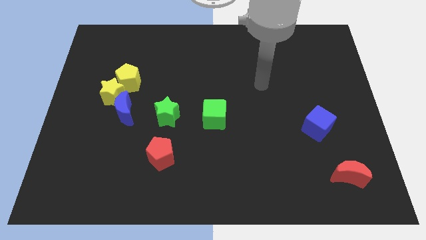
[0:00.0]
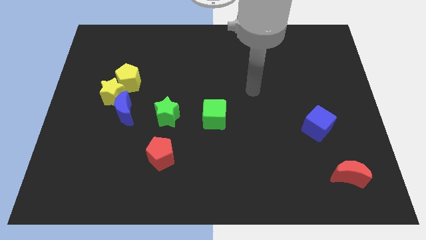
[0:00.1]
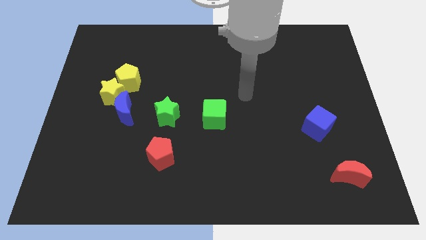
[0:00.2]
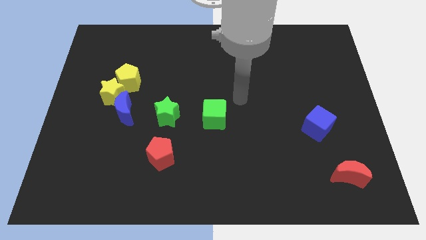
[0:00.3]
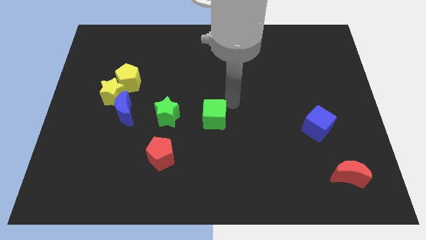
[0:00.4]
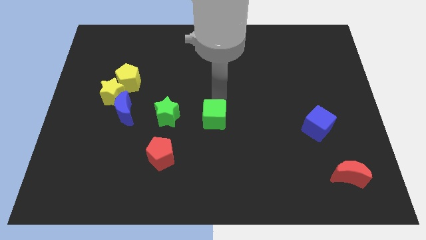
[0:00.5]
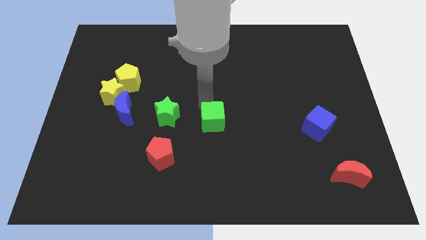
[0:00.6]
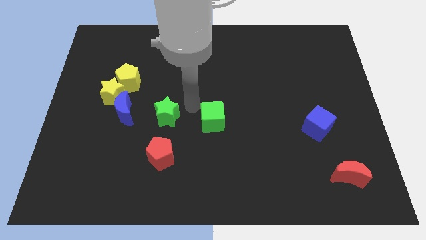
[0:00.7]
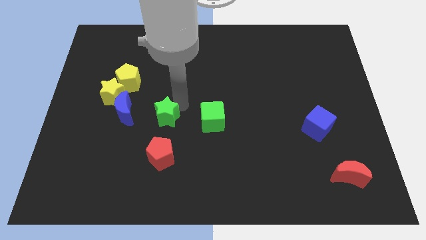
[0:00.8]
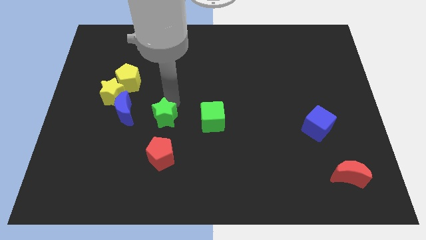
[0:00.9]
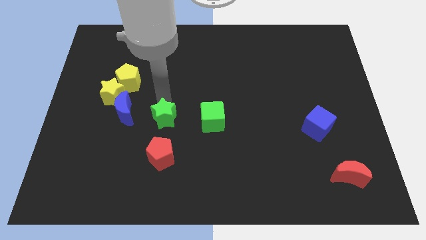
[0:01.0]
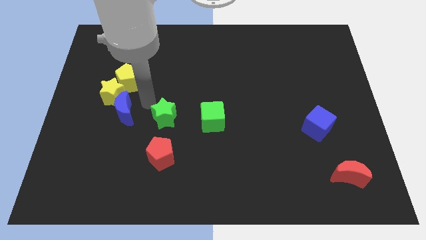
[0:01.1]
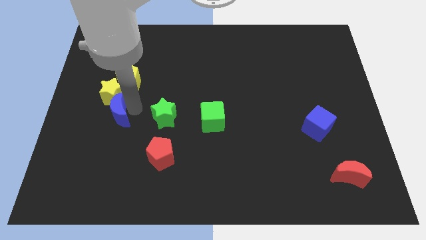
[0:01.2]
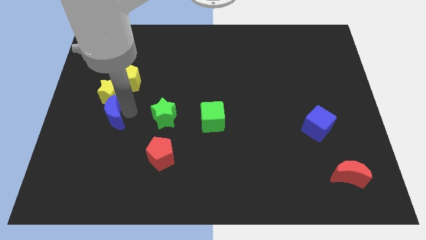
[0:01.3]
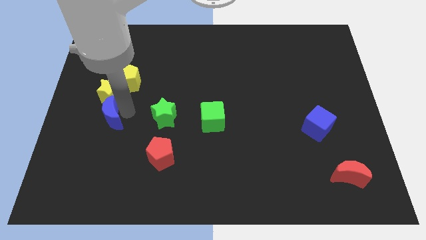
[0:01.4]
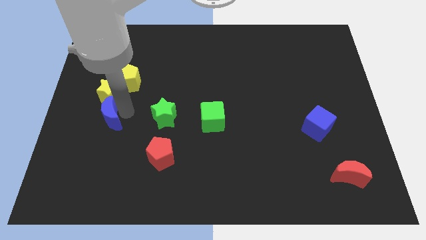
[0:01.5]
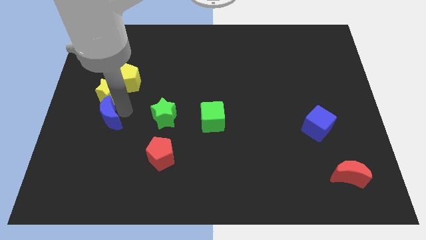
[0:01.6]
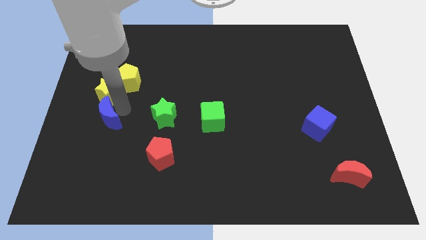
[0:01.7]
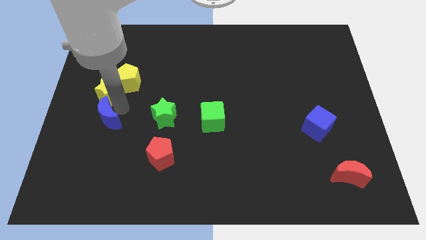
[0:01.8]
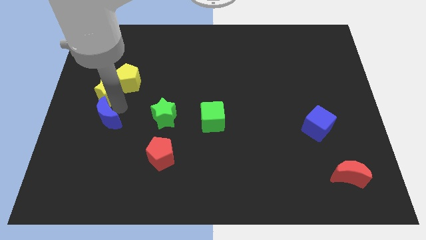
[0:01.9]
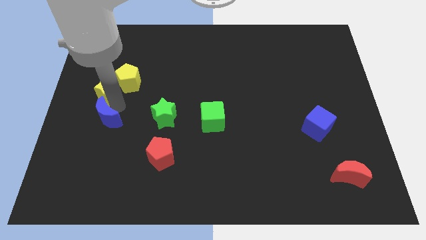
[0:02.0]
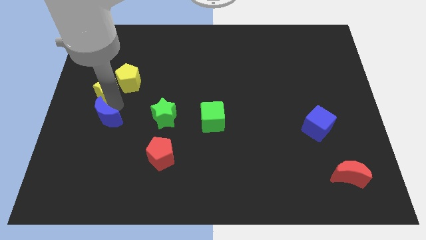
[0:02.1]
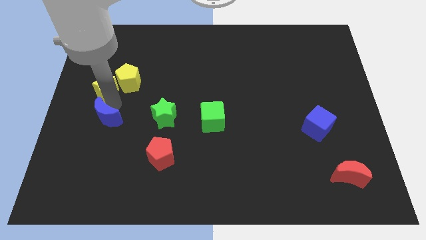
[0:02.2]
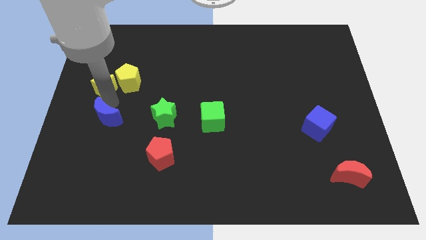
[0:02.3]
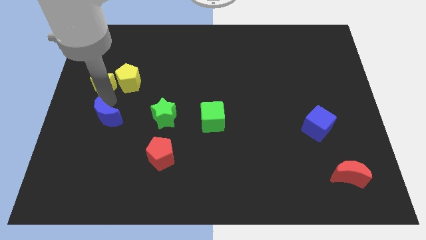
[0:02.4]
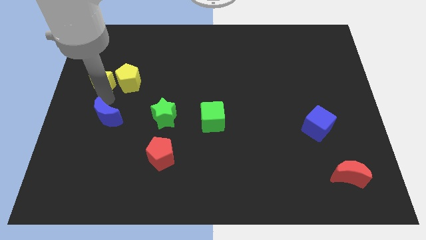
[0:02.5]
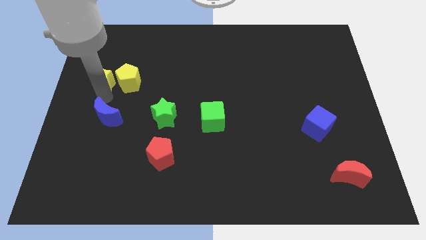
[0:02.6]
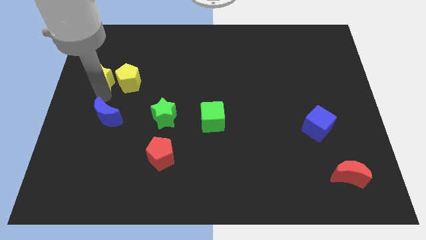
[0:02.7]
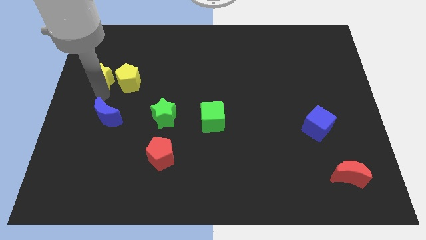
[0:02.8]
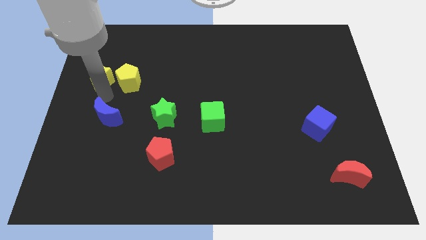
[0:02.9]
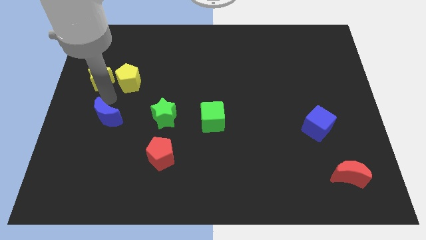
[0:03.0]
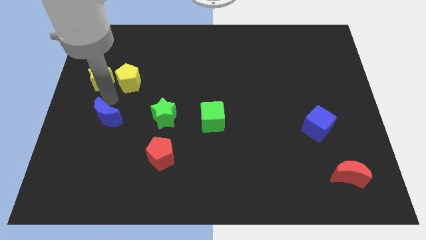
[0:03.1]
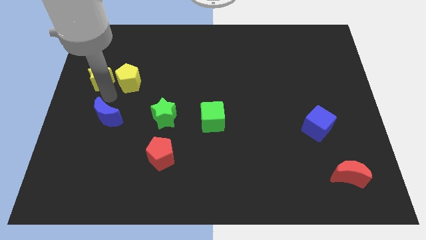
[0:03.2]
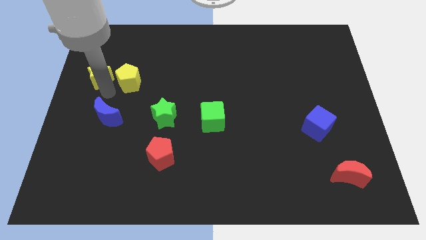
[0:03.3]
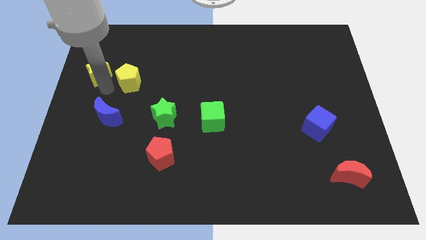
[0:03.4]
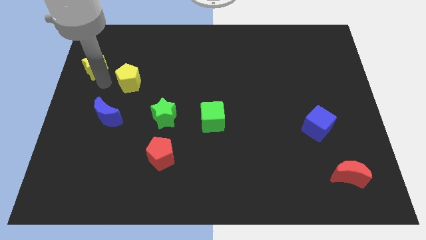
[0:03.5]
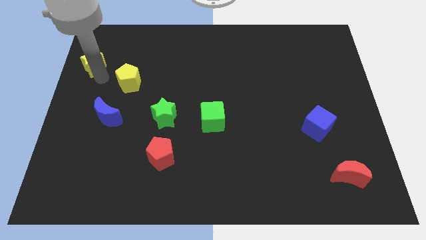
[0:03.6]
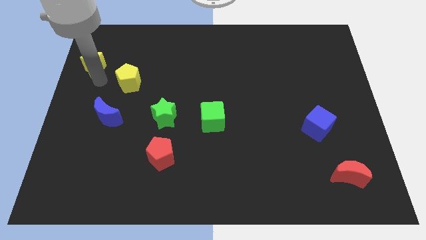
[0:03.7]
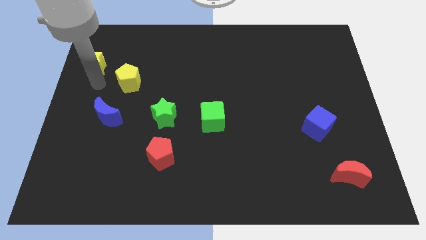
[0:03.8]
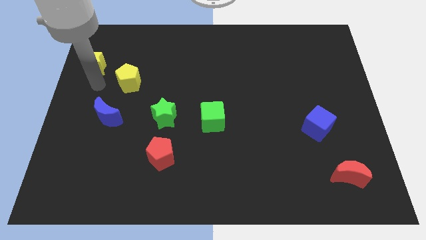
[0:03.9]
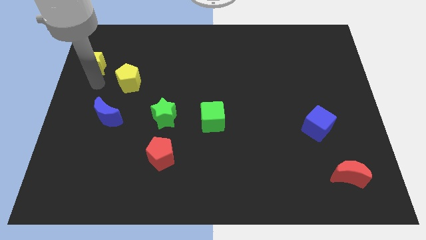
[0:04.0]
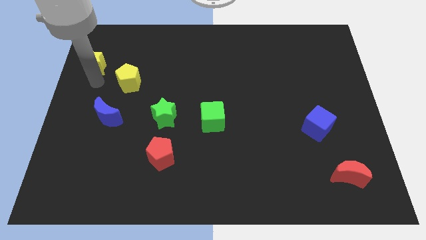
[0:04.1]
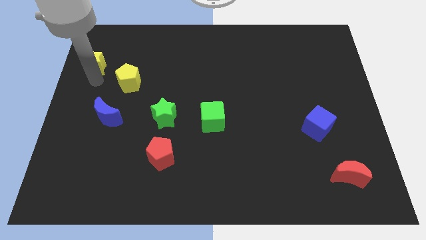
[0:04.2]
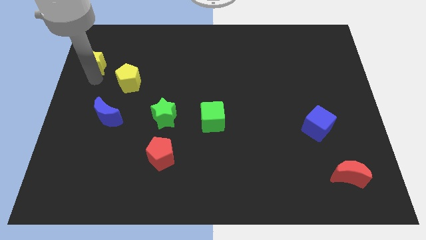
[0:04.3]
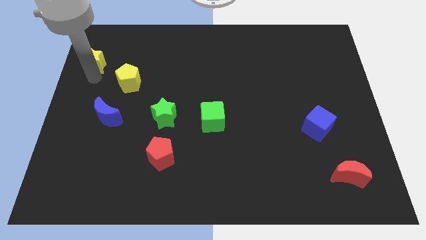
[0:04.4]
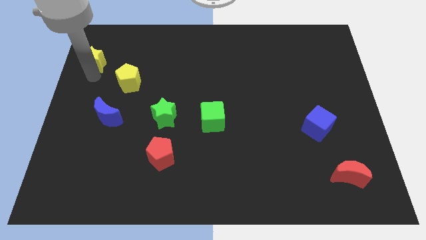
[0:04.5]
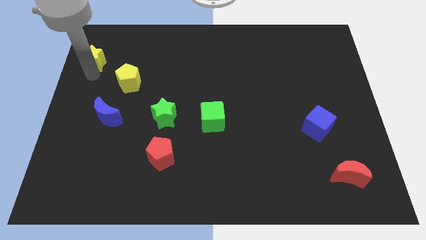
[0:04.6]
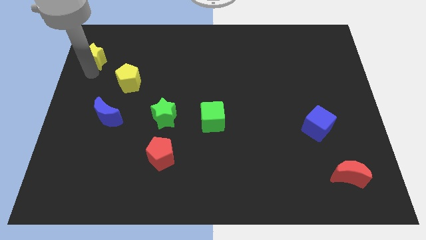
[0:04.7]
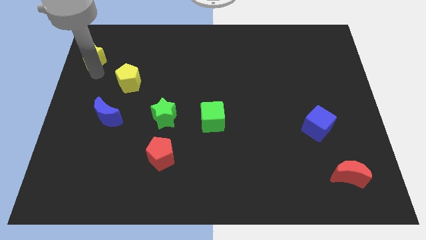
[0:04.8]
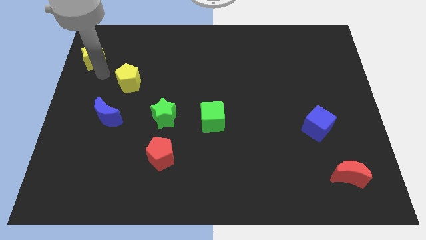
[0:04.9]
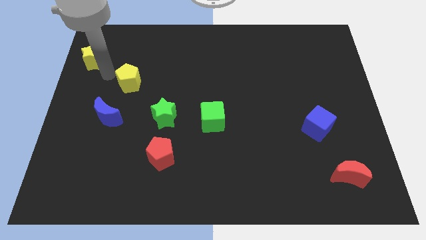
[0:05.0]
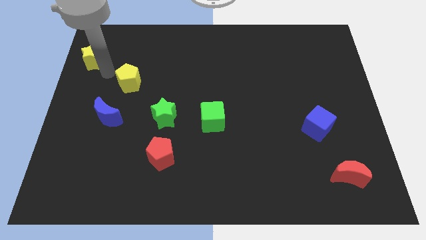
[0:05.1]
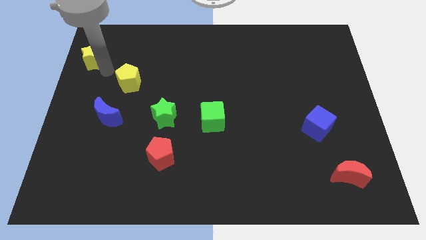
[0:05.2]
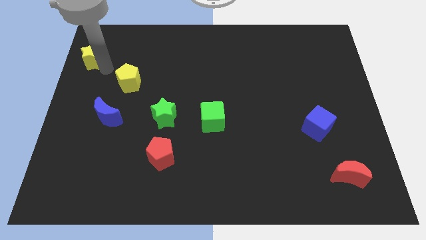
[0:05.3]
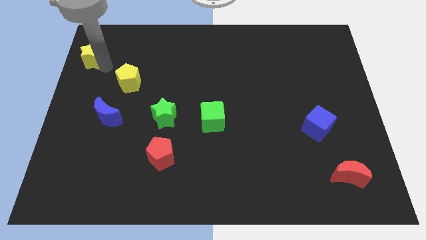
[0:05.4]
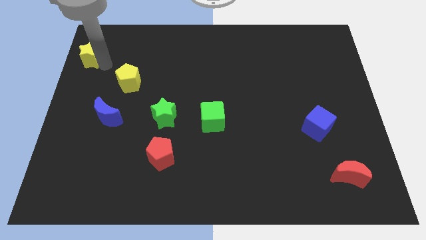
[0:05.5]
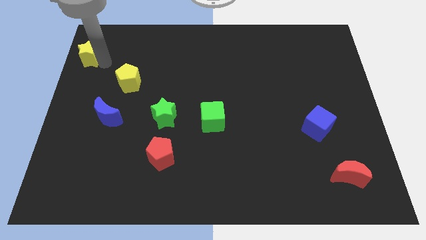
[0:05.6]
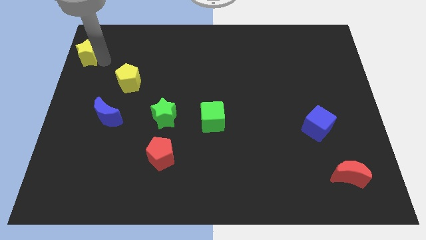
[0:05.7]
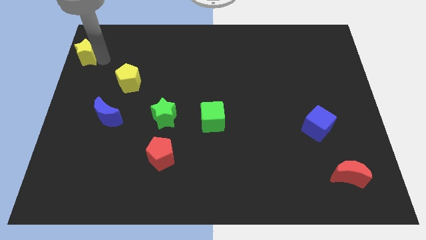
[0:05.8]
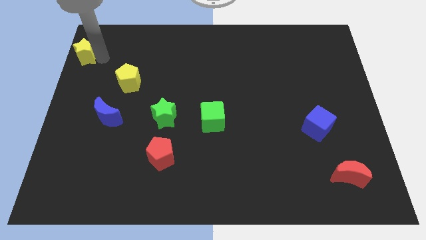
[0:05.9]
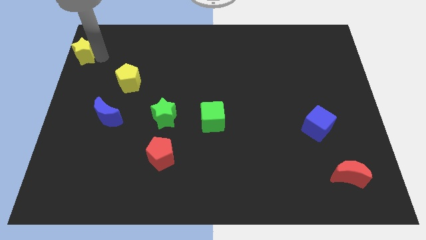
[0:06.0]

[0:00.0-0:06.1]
put the yellow star to the top left corner
